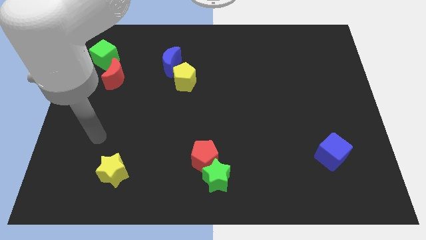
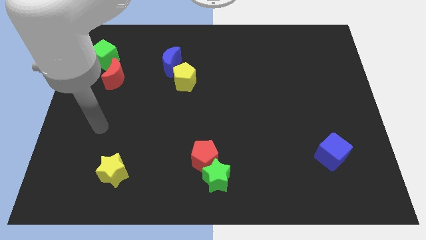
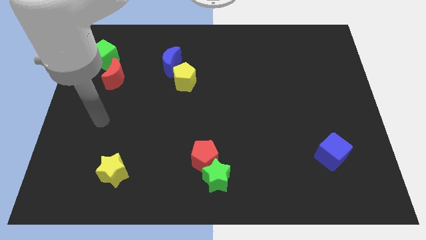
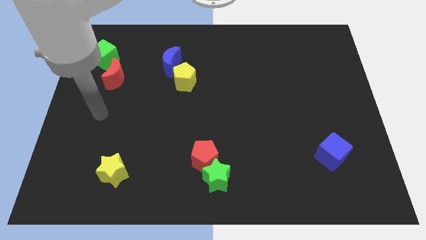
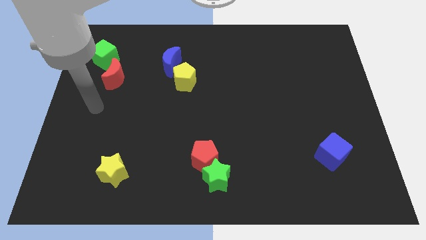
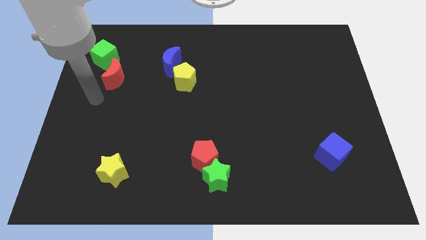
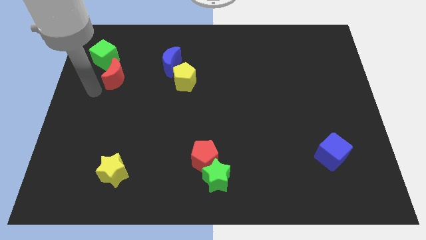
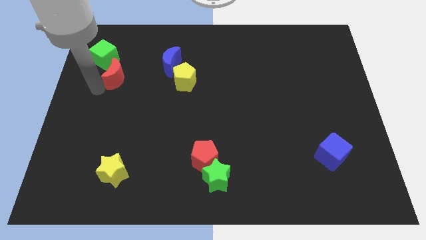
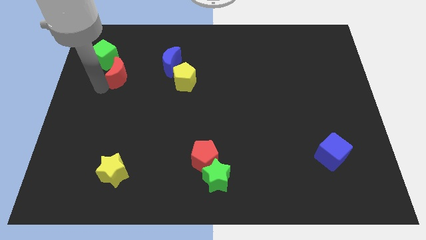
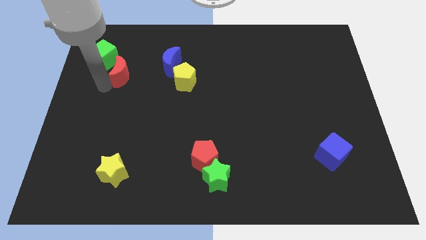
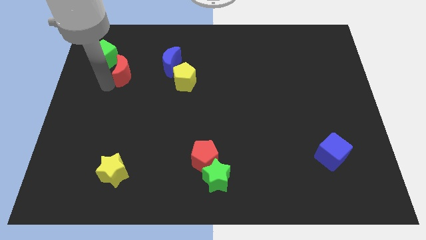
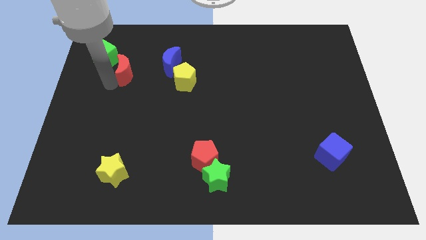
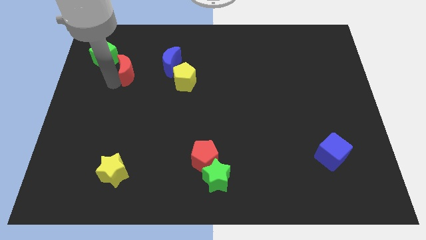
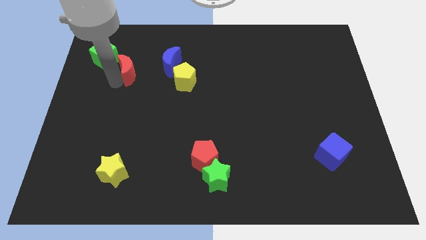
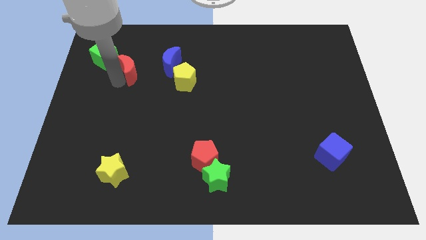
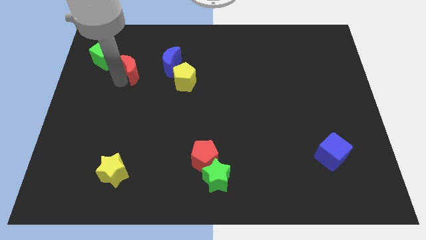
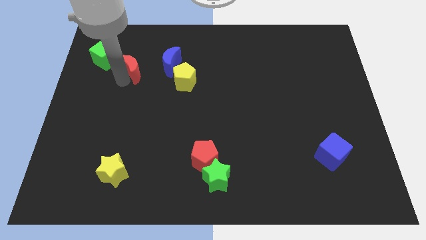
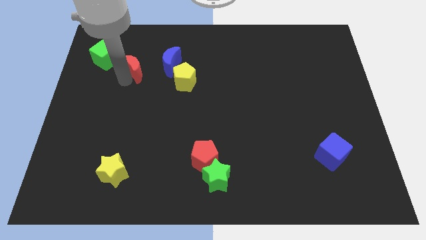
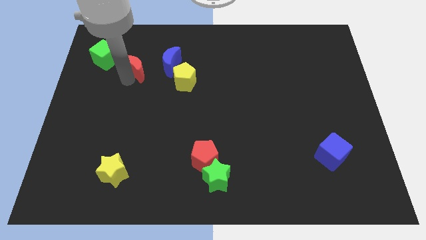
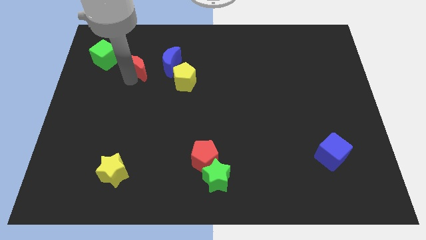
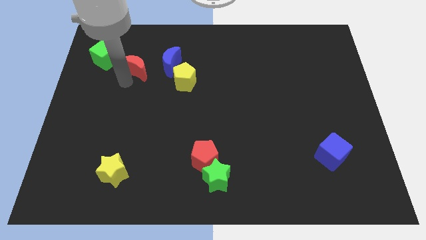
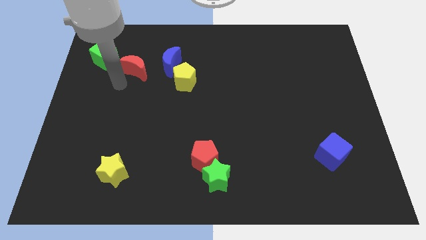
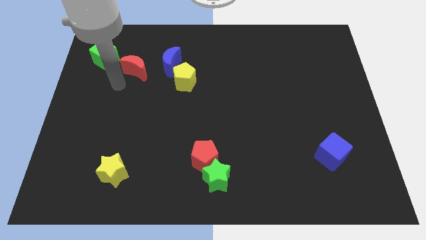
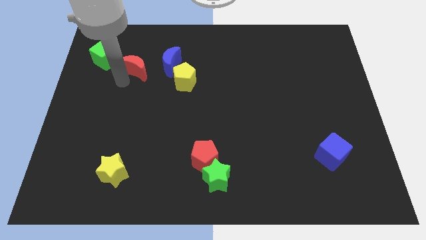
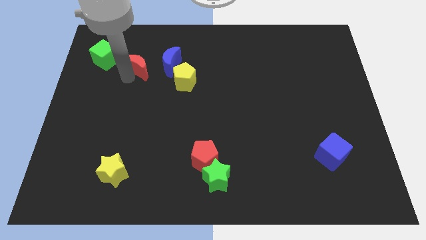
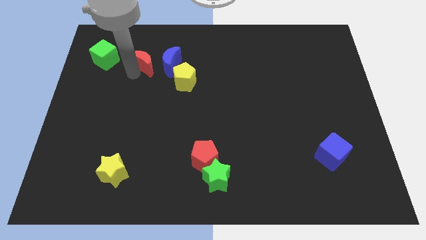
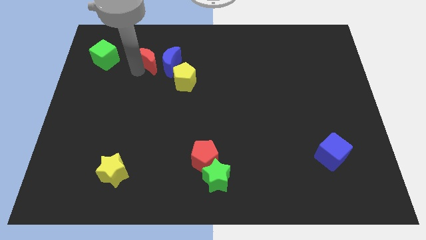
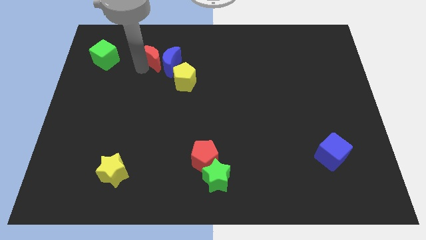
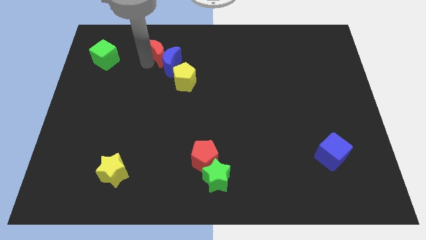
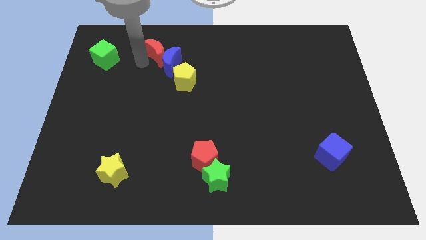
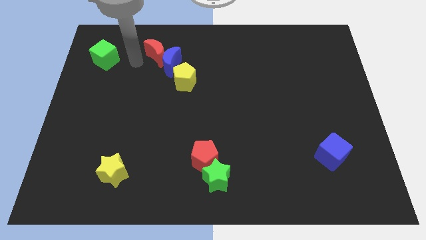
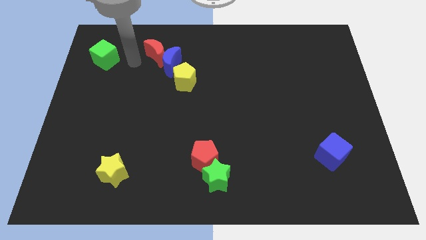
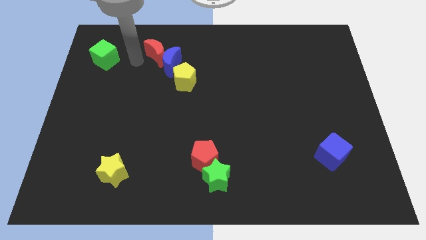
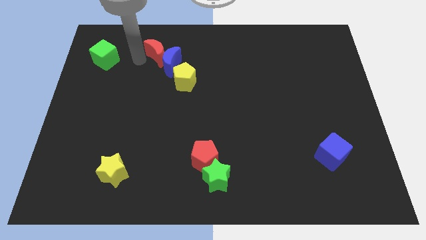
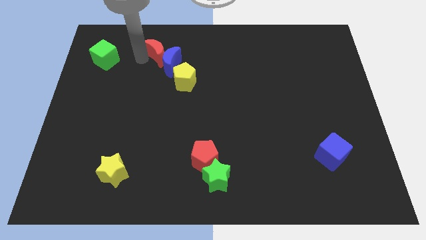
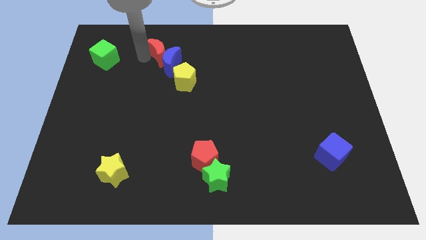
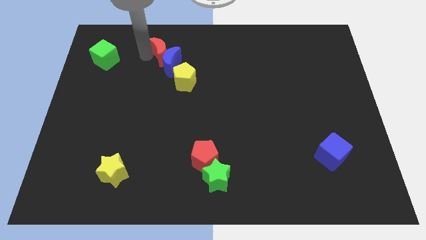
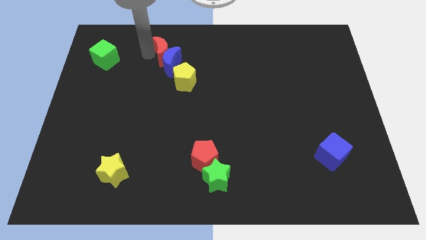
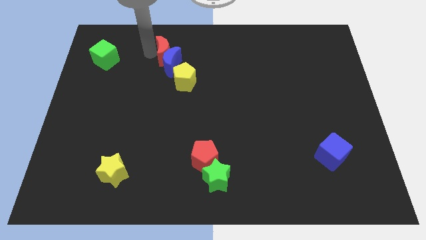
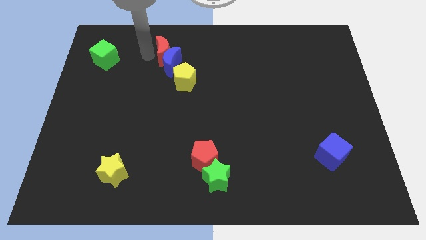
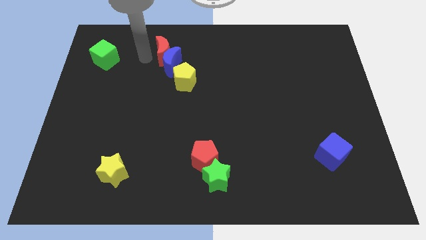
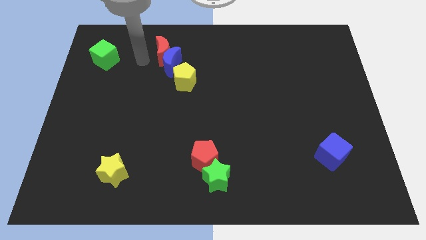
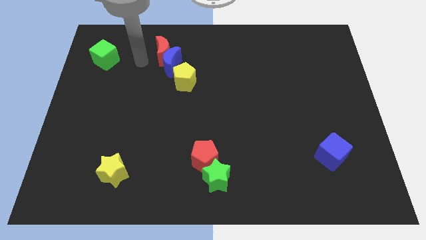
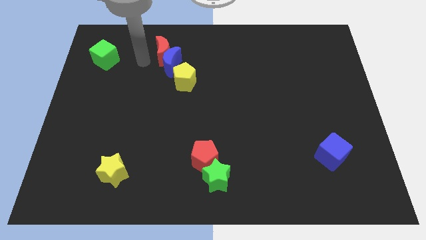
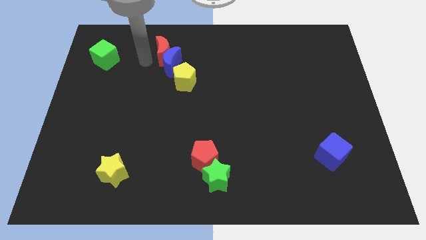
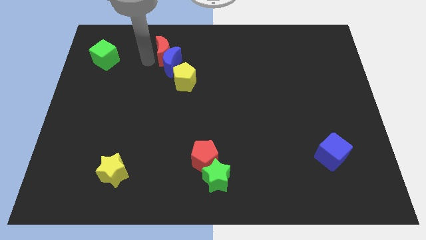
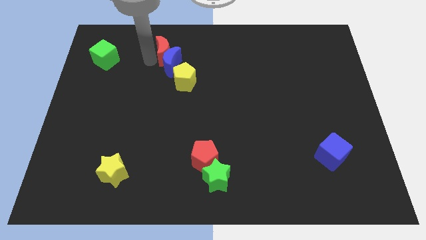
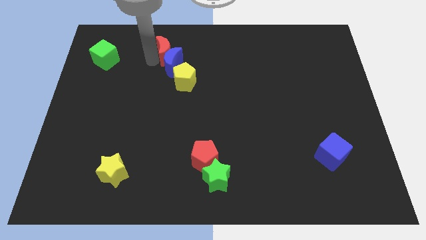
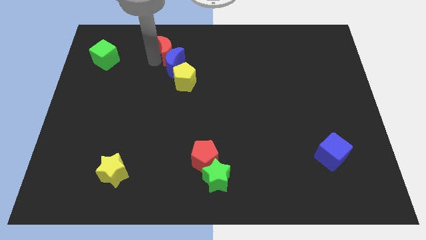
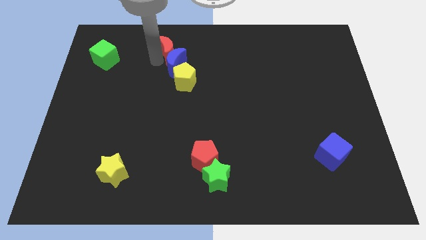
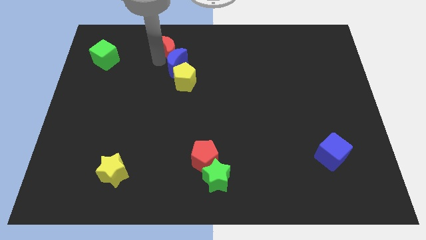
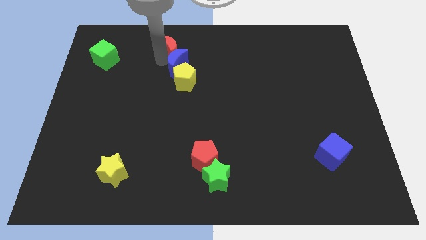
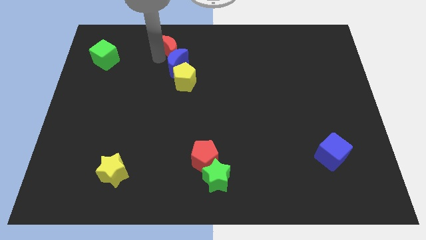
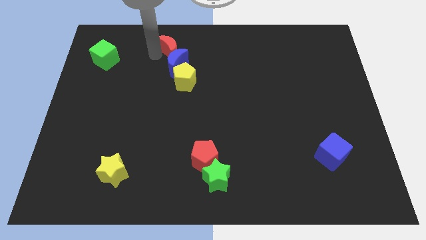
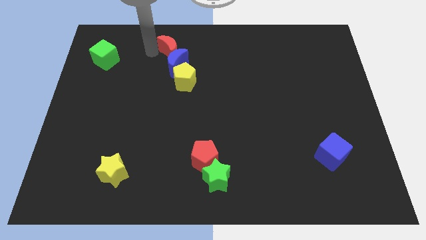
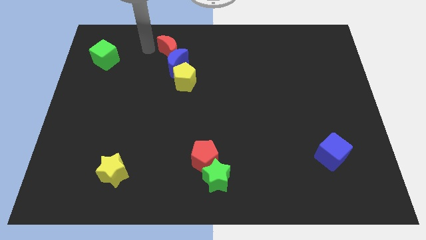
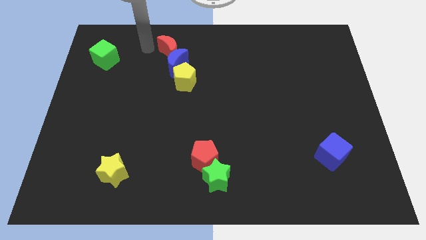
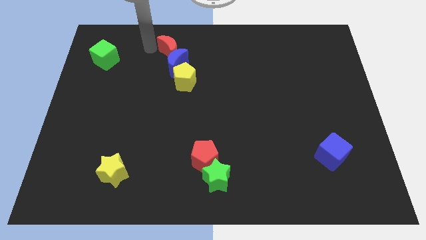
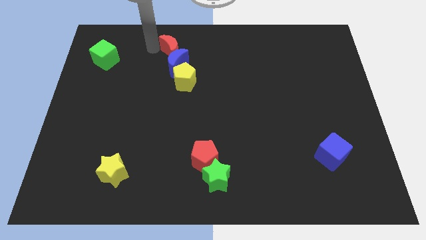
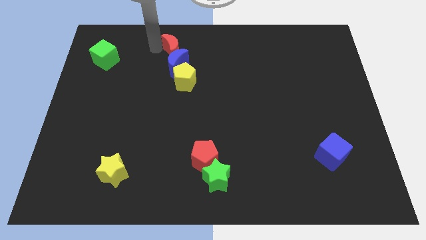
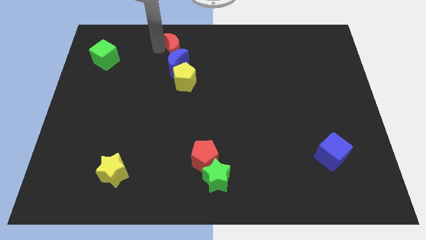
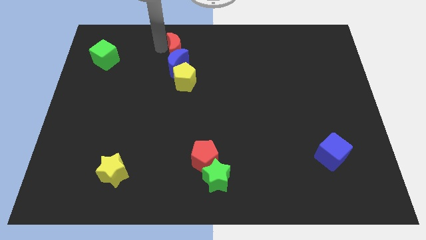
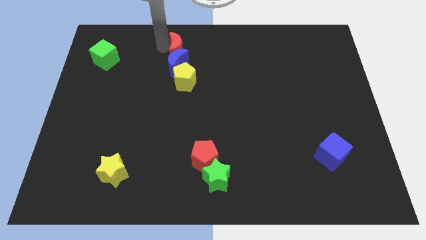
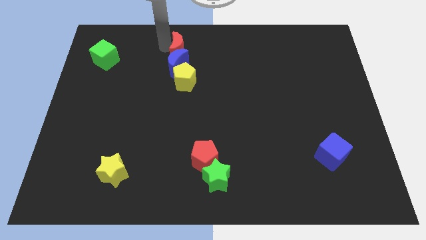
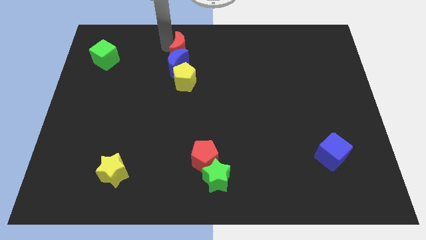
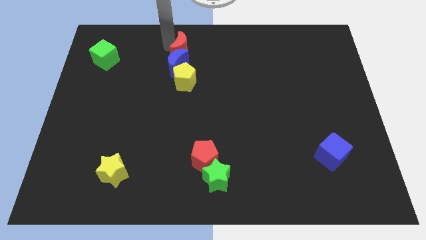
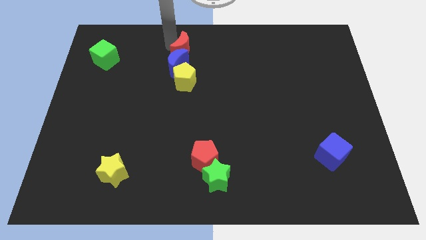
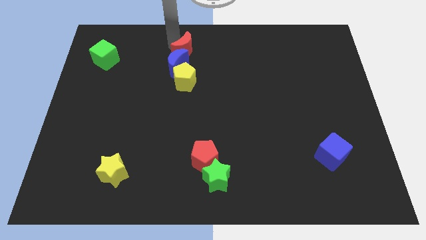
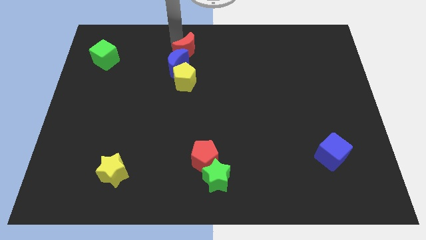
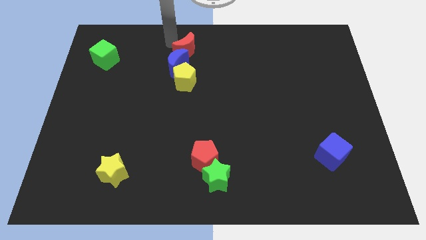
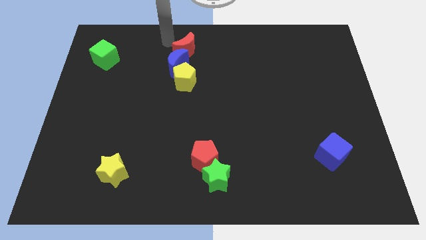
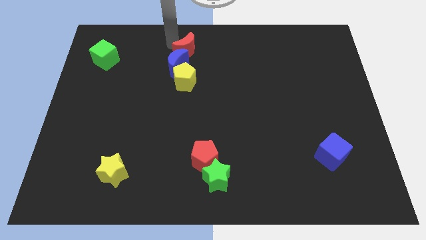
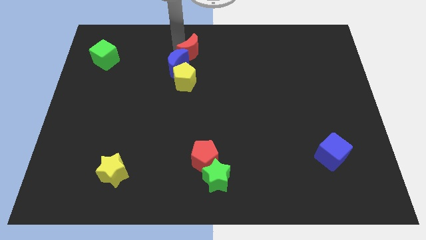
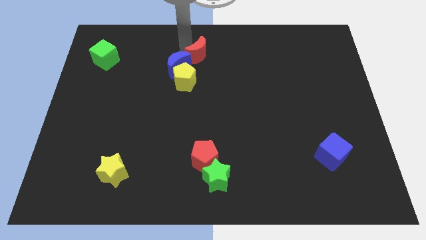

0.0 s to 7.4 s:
slide the red moon to the right of the blue moon

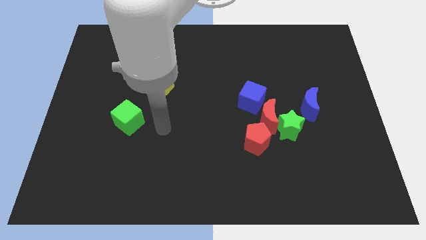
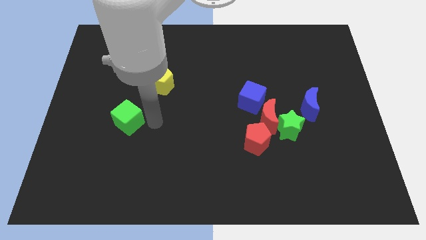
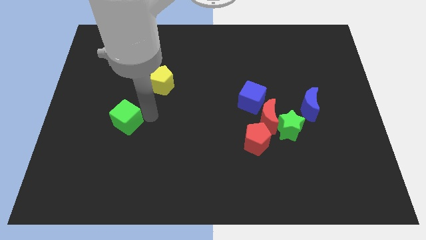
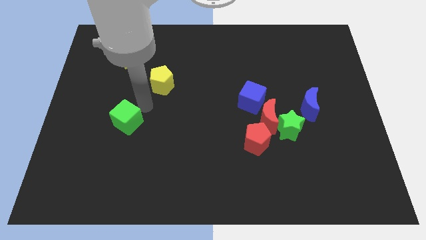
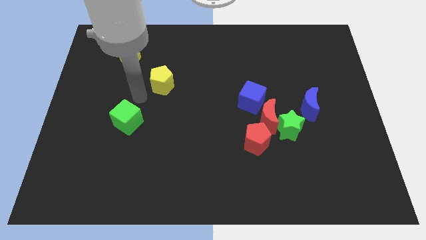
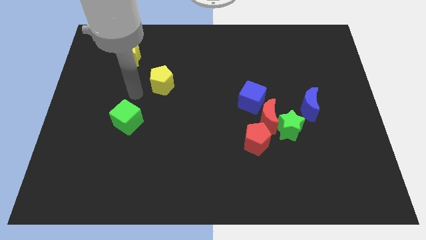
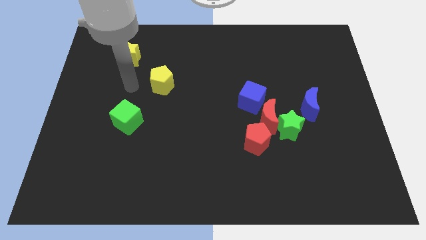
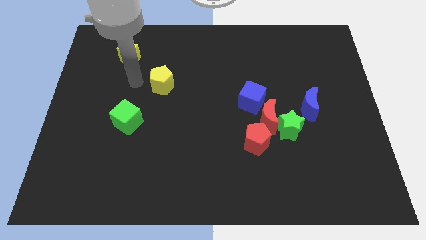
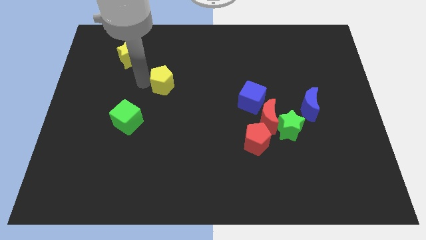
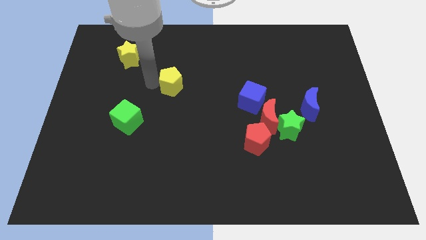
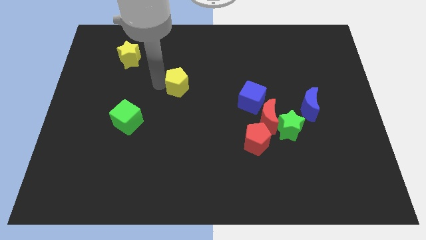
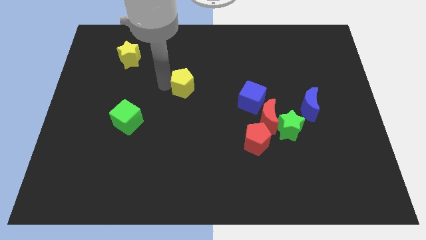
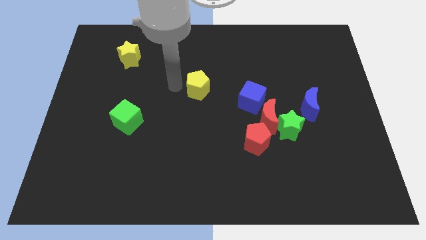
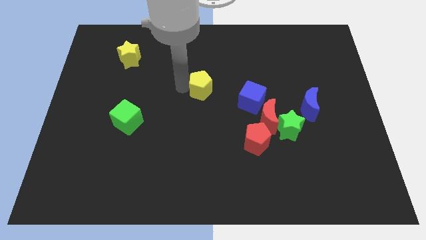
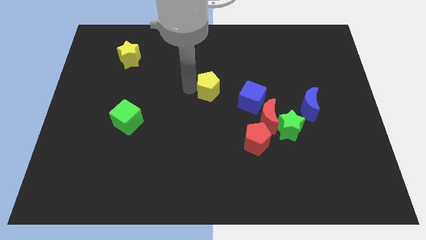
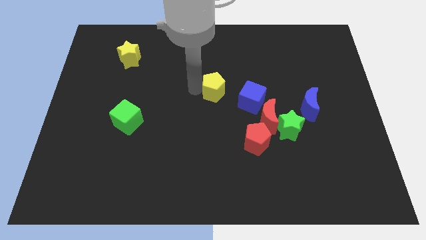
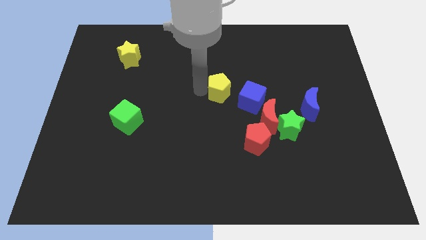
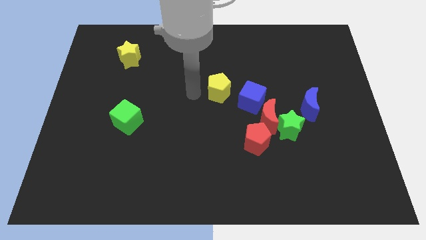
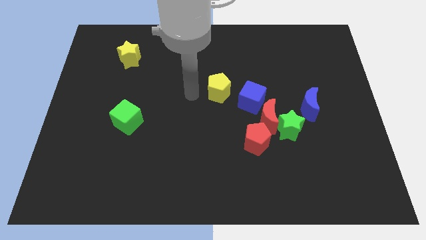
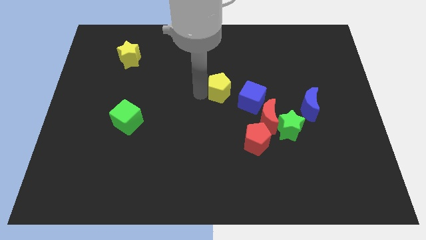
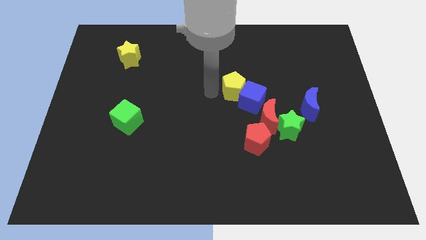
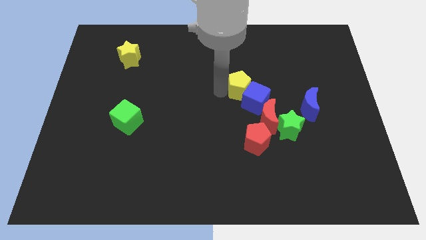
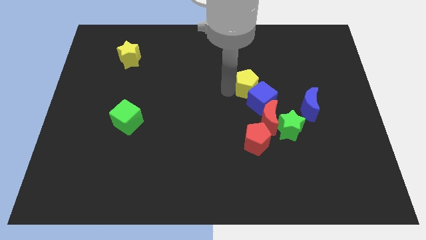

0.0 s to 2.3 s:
push the yellow pentagon above the red moon
